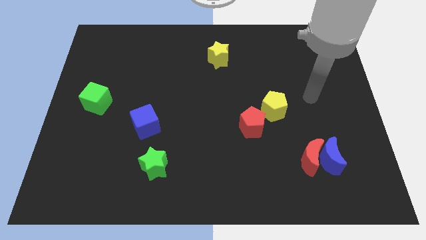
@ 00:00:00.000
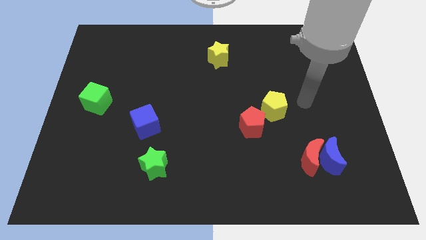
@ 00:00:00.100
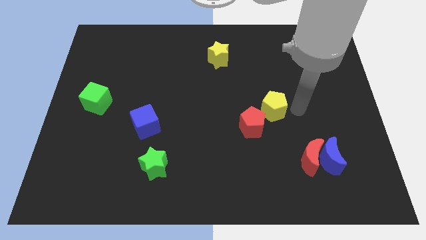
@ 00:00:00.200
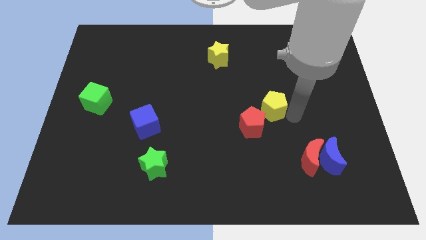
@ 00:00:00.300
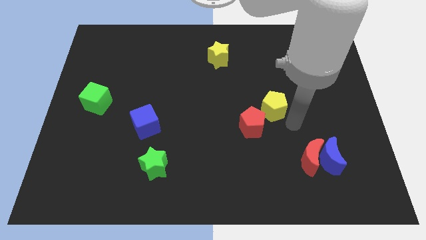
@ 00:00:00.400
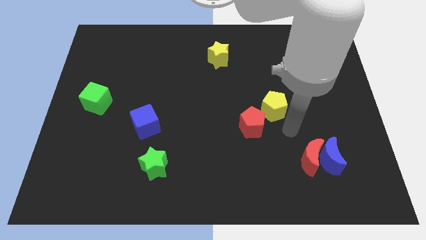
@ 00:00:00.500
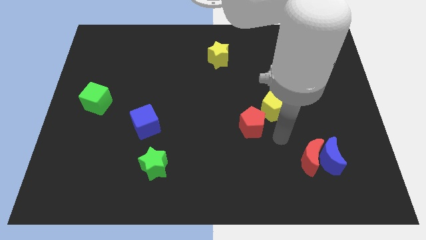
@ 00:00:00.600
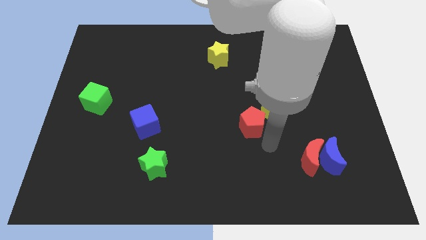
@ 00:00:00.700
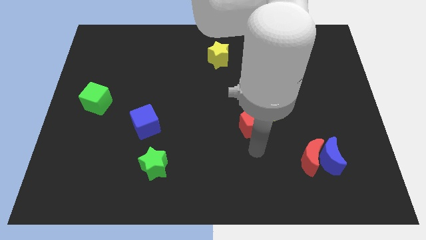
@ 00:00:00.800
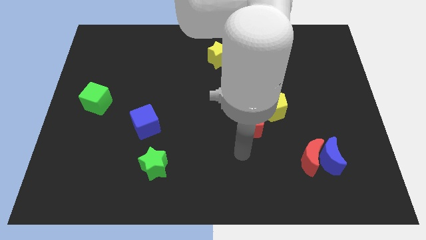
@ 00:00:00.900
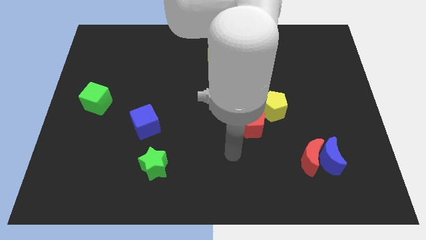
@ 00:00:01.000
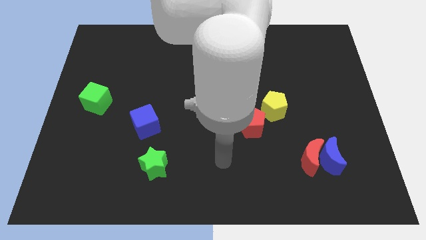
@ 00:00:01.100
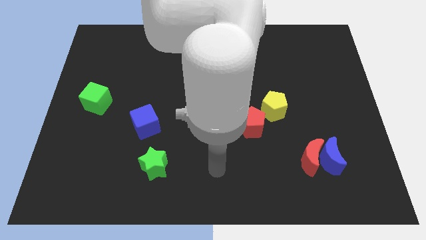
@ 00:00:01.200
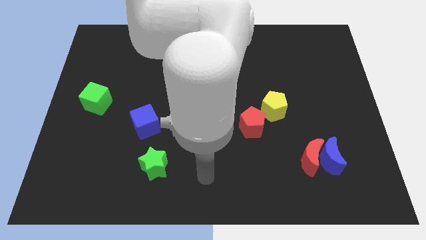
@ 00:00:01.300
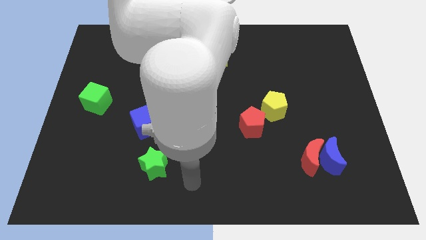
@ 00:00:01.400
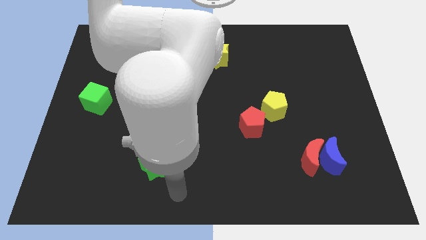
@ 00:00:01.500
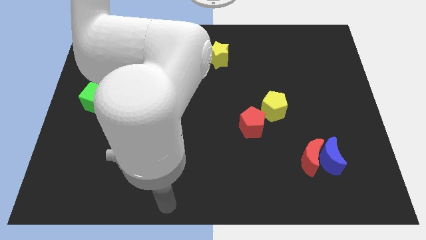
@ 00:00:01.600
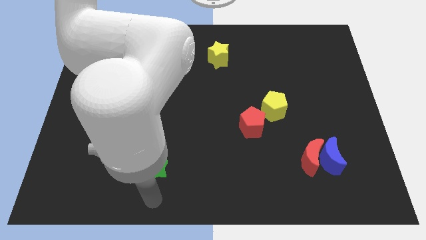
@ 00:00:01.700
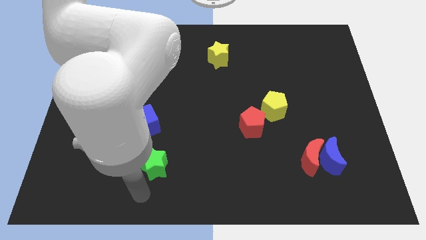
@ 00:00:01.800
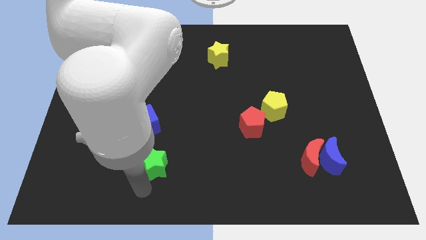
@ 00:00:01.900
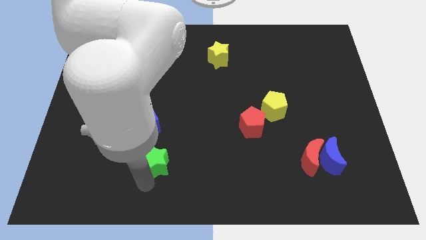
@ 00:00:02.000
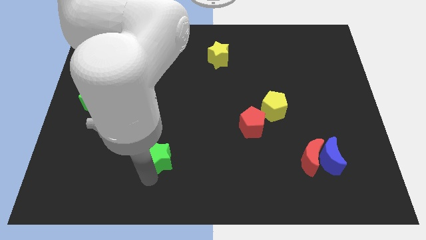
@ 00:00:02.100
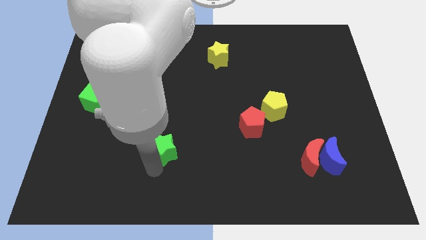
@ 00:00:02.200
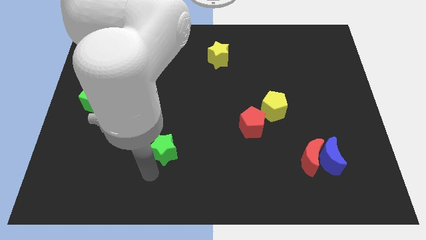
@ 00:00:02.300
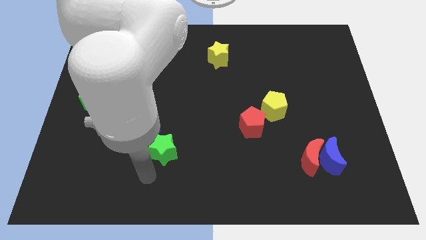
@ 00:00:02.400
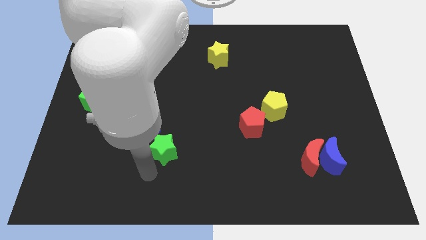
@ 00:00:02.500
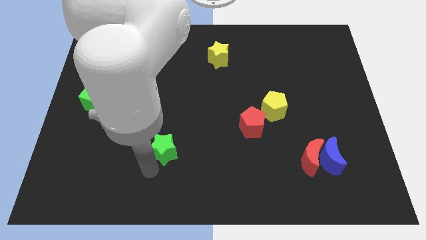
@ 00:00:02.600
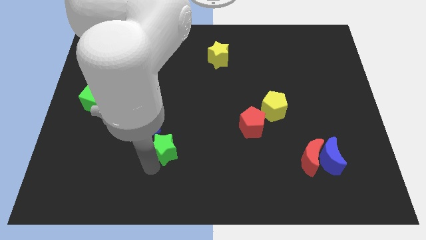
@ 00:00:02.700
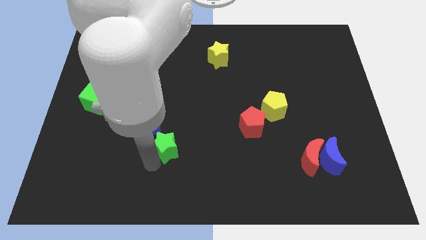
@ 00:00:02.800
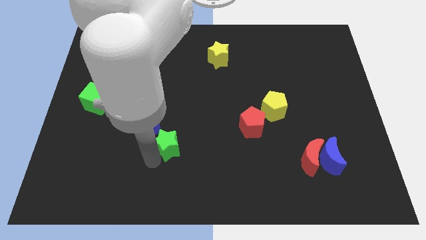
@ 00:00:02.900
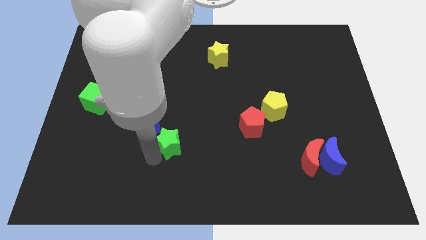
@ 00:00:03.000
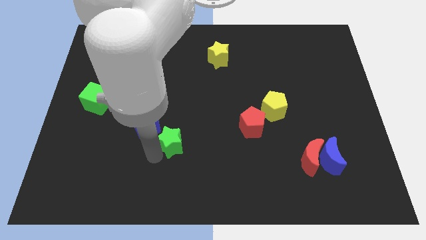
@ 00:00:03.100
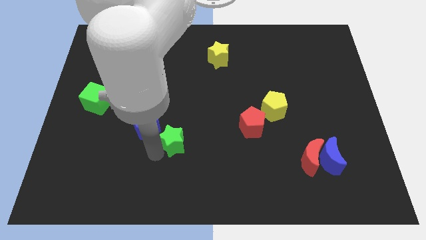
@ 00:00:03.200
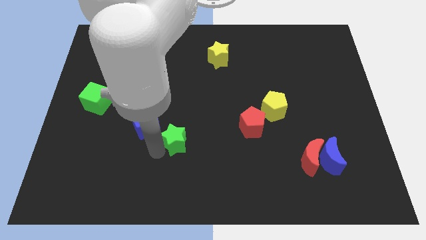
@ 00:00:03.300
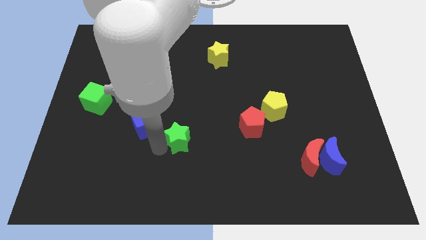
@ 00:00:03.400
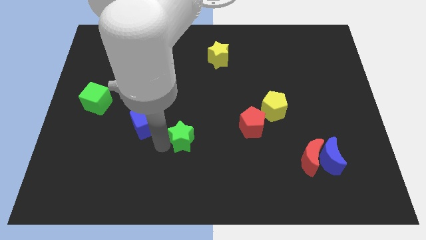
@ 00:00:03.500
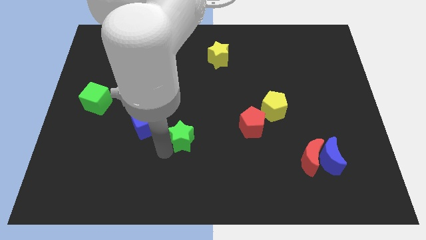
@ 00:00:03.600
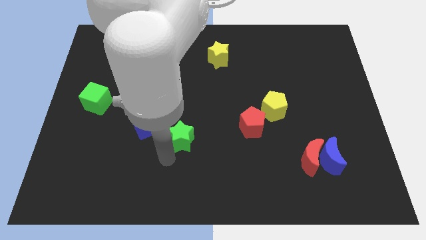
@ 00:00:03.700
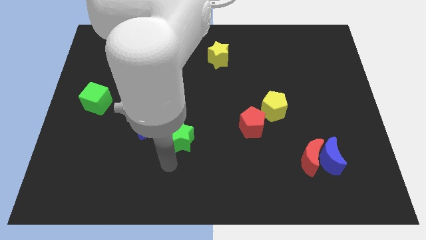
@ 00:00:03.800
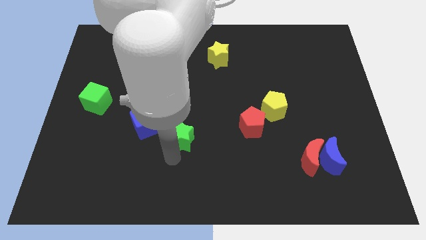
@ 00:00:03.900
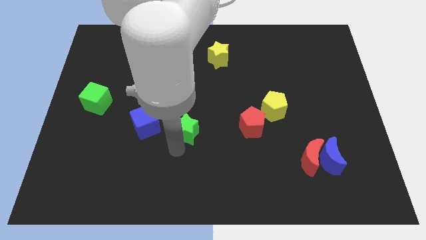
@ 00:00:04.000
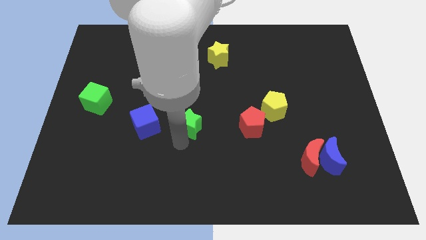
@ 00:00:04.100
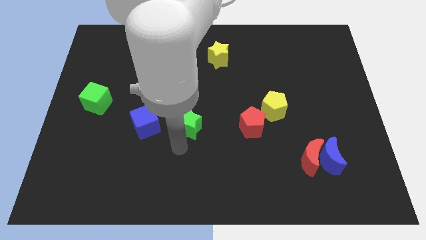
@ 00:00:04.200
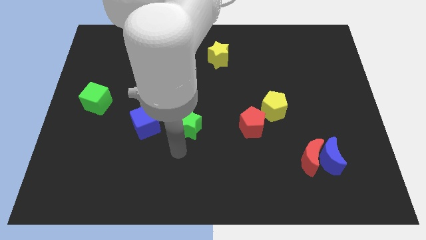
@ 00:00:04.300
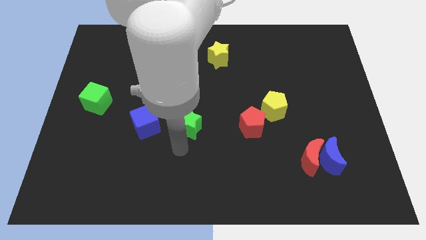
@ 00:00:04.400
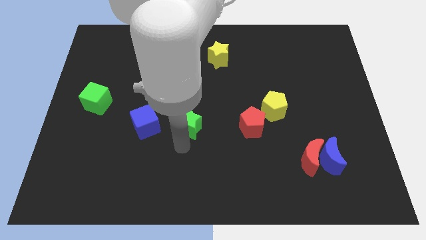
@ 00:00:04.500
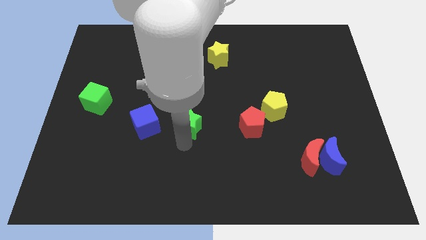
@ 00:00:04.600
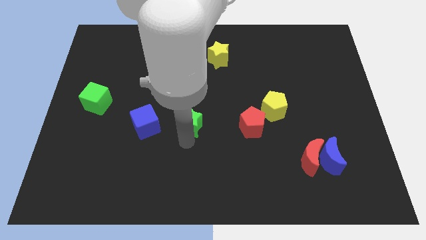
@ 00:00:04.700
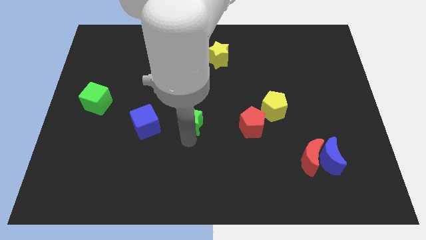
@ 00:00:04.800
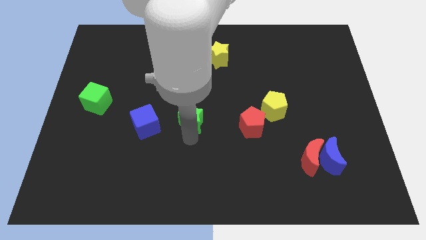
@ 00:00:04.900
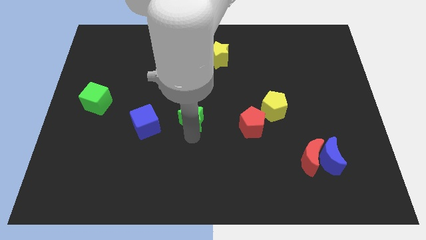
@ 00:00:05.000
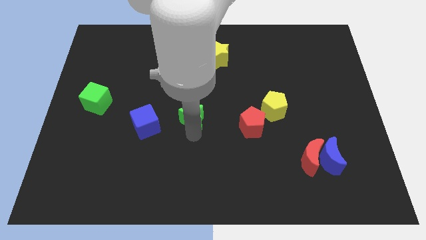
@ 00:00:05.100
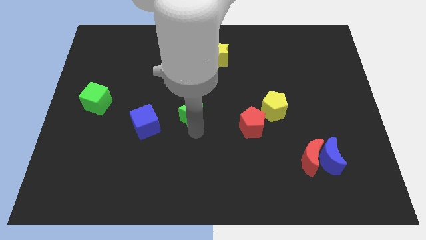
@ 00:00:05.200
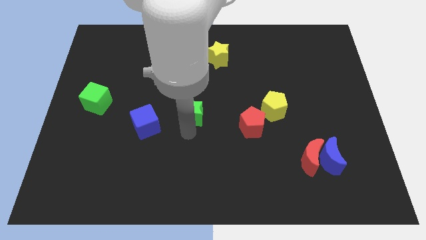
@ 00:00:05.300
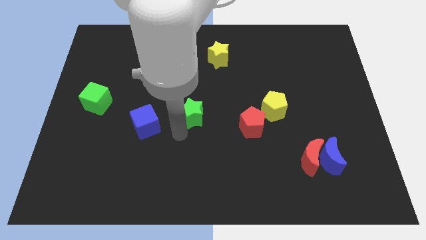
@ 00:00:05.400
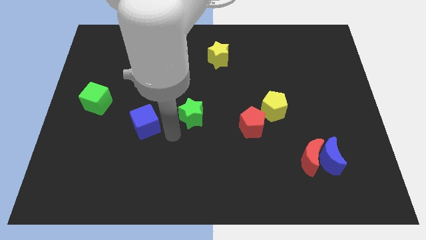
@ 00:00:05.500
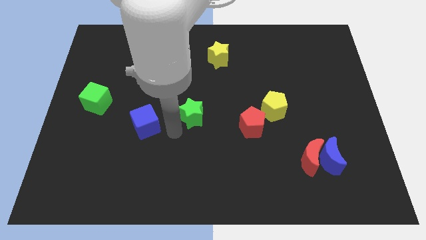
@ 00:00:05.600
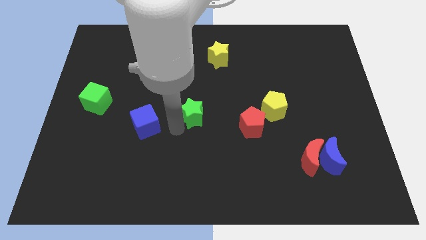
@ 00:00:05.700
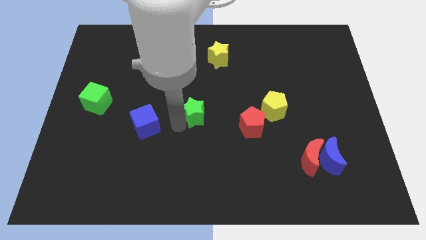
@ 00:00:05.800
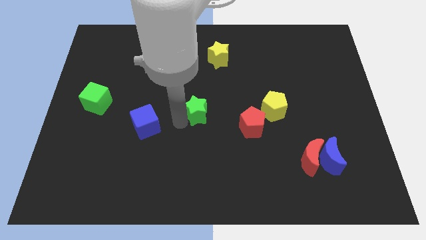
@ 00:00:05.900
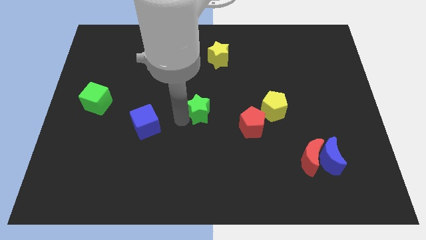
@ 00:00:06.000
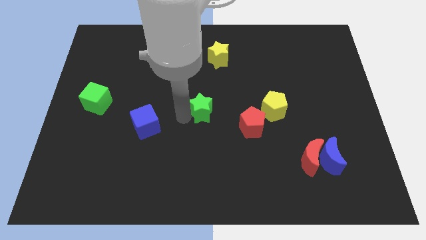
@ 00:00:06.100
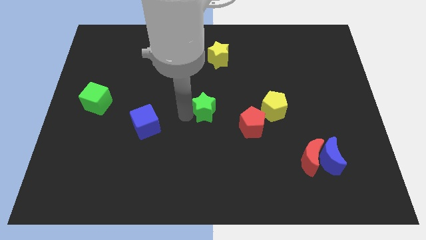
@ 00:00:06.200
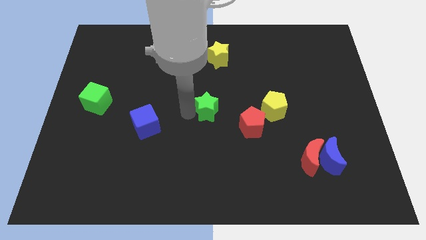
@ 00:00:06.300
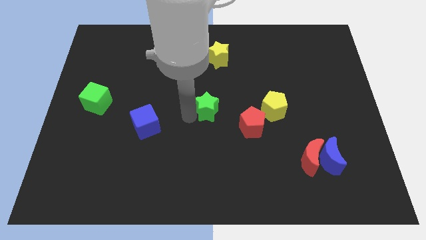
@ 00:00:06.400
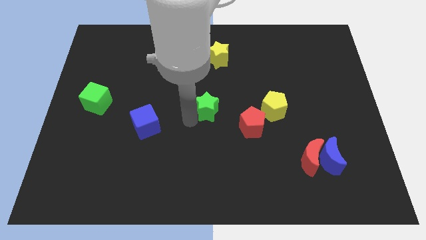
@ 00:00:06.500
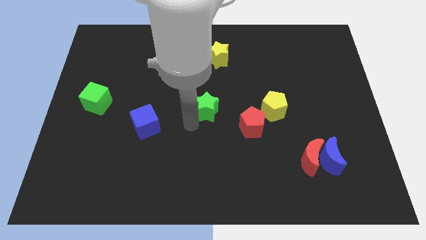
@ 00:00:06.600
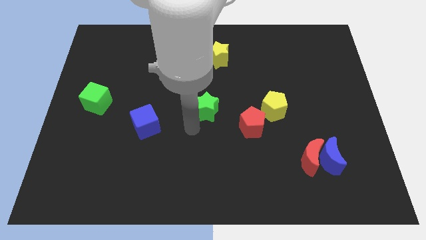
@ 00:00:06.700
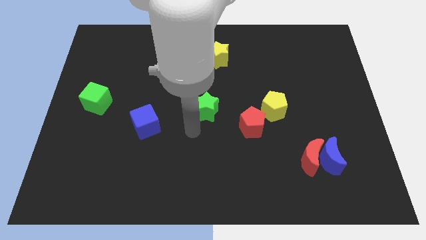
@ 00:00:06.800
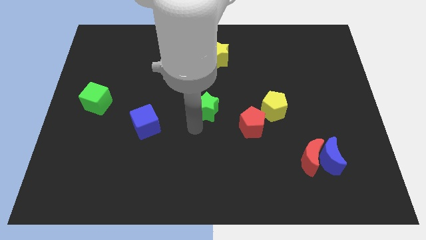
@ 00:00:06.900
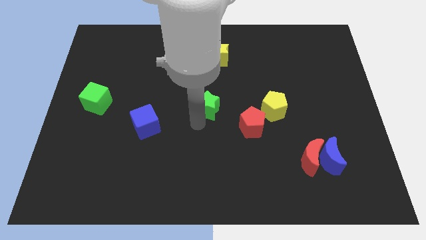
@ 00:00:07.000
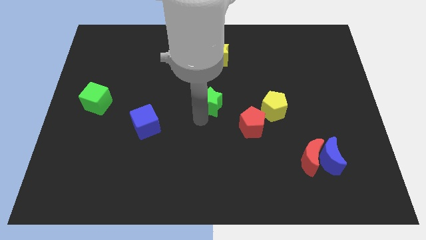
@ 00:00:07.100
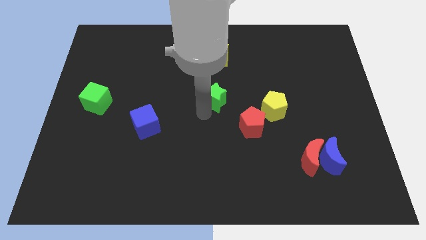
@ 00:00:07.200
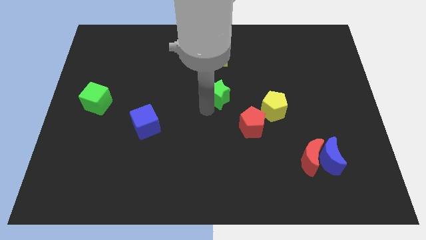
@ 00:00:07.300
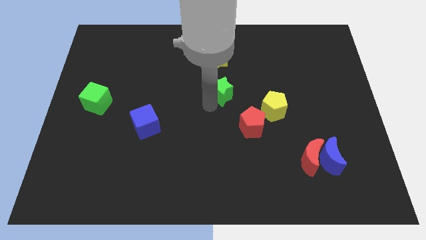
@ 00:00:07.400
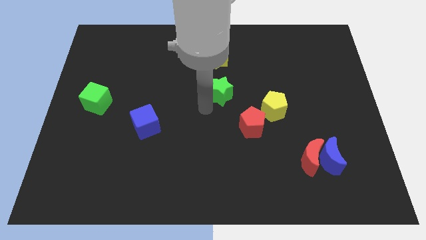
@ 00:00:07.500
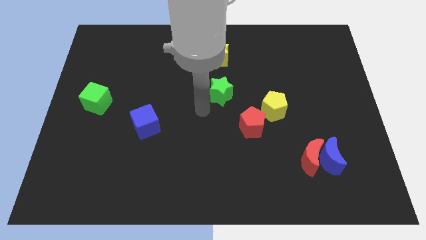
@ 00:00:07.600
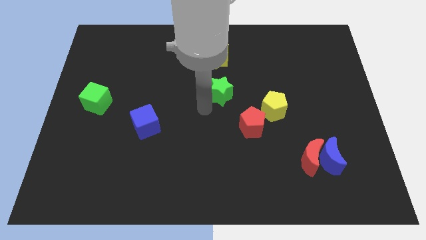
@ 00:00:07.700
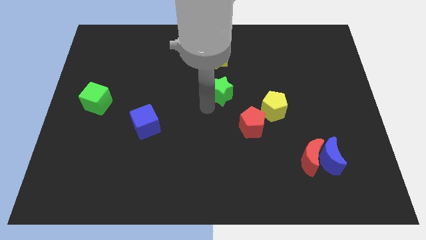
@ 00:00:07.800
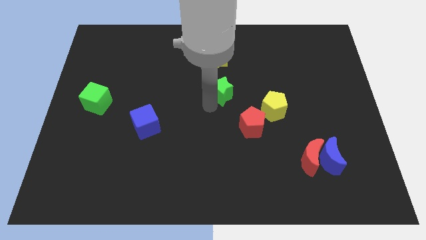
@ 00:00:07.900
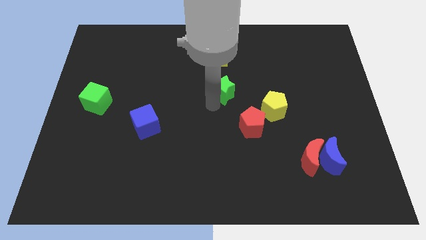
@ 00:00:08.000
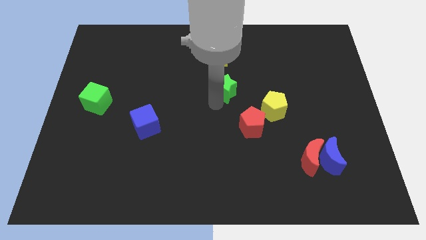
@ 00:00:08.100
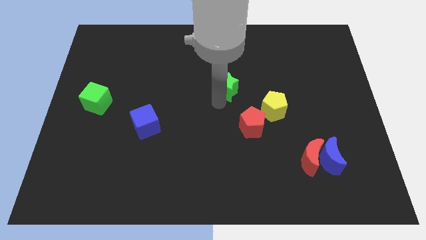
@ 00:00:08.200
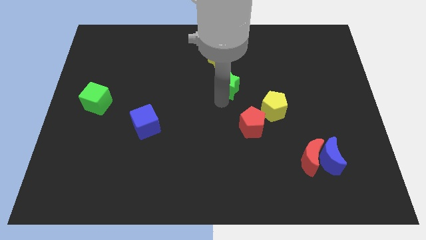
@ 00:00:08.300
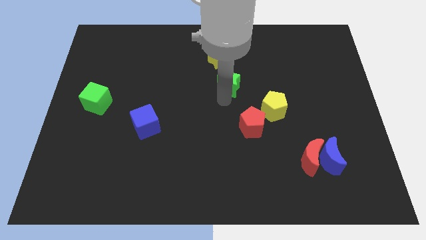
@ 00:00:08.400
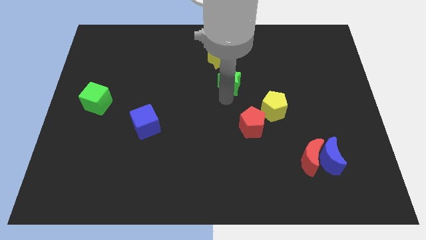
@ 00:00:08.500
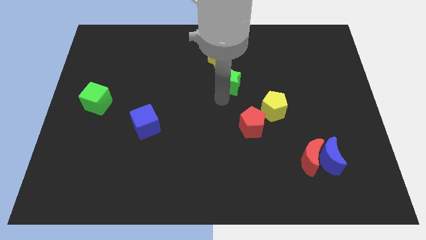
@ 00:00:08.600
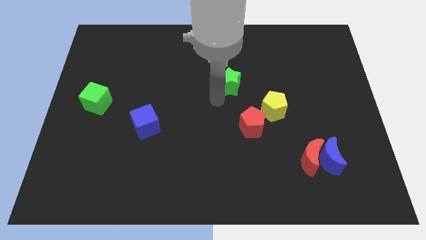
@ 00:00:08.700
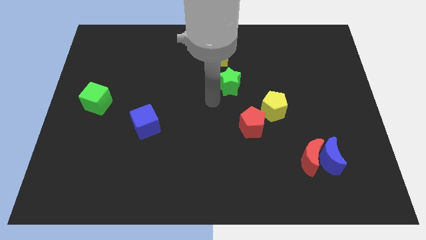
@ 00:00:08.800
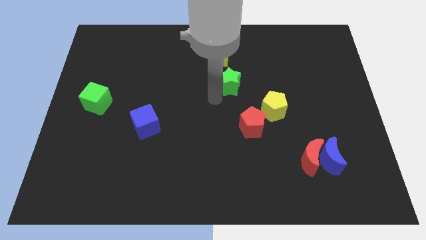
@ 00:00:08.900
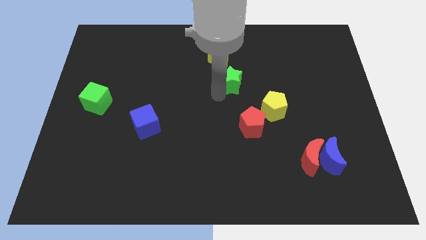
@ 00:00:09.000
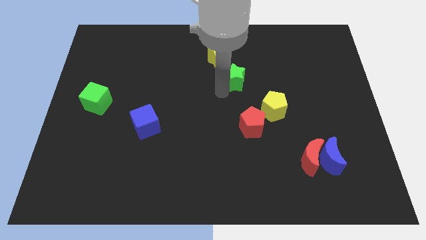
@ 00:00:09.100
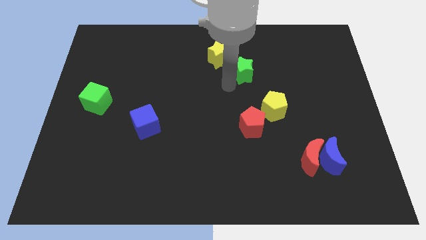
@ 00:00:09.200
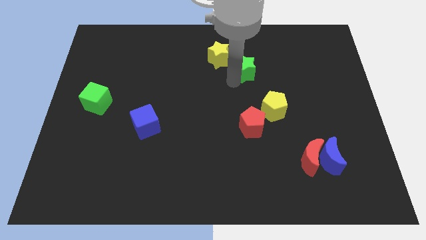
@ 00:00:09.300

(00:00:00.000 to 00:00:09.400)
slide the green star to the right side of the yellow star
